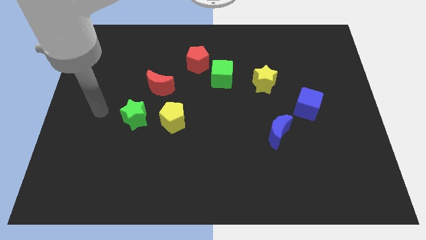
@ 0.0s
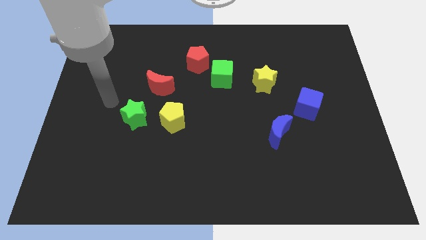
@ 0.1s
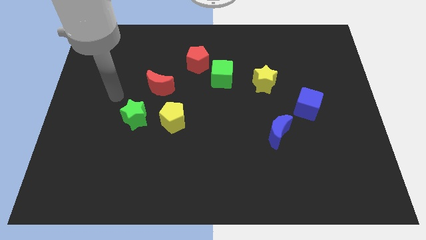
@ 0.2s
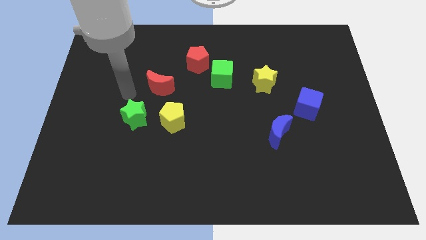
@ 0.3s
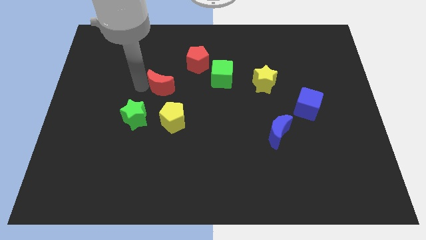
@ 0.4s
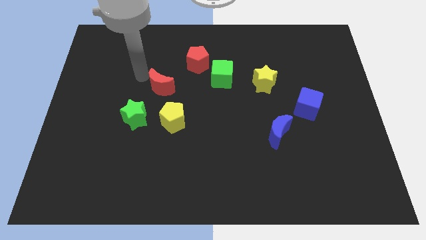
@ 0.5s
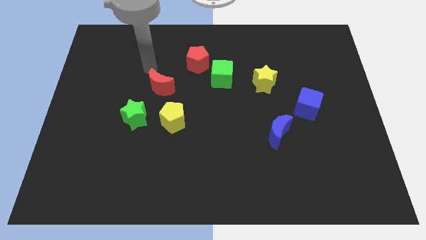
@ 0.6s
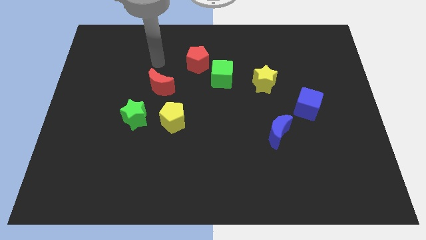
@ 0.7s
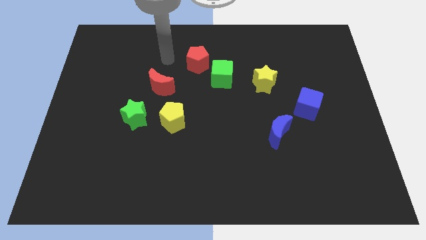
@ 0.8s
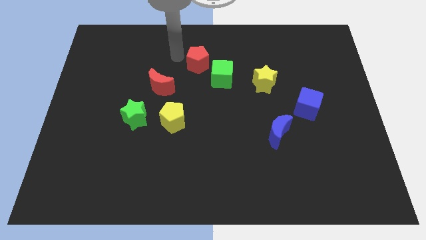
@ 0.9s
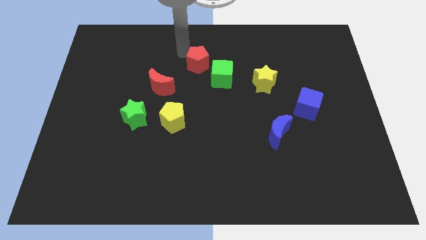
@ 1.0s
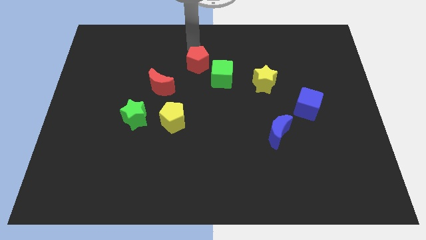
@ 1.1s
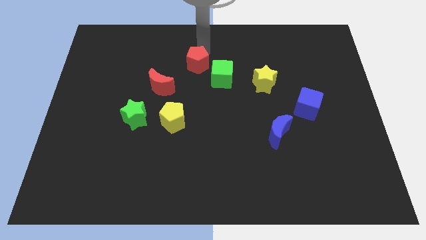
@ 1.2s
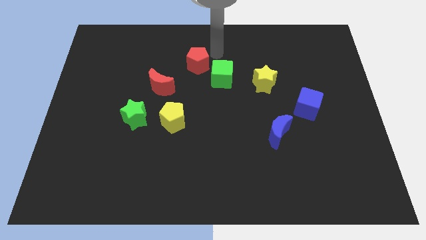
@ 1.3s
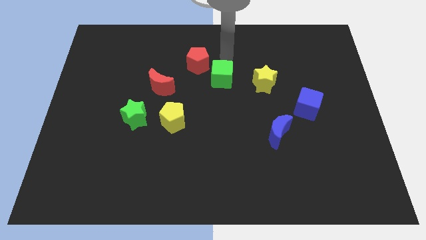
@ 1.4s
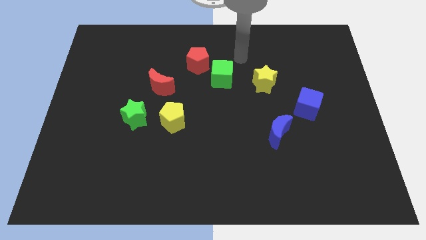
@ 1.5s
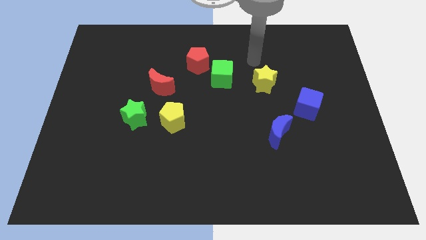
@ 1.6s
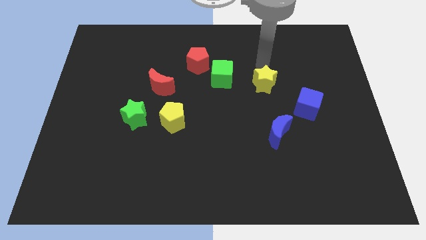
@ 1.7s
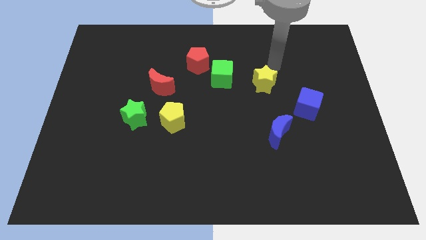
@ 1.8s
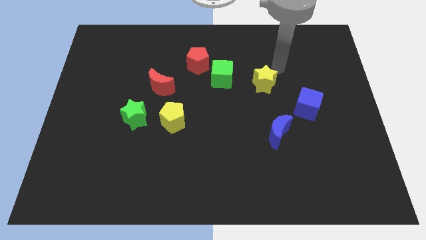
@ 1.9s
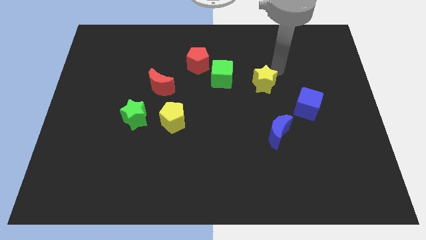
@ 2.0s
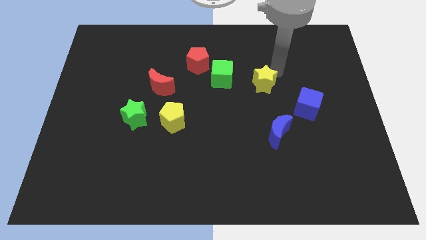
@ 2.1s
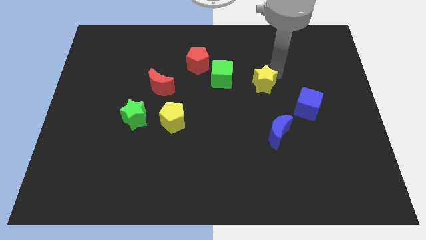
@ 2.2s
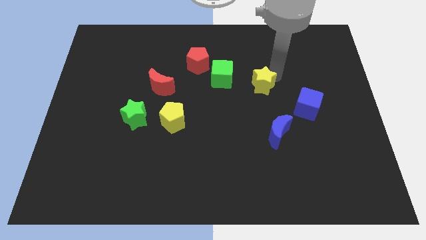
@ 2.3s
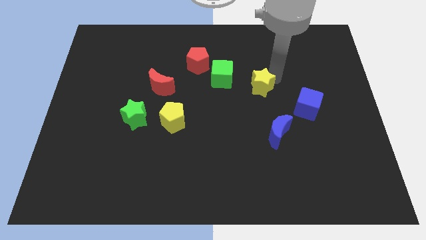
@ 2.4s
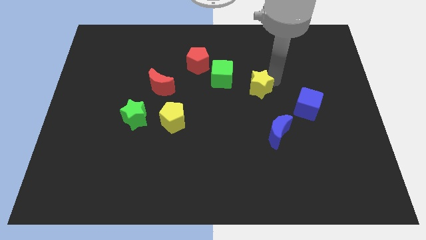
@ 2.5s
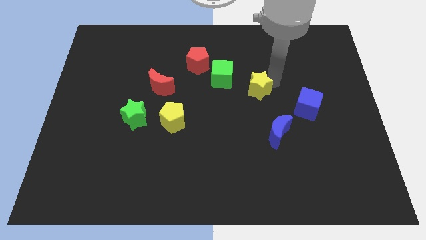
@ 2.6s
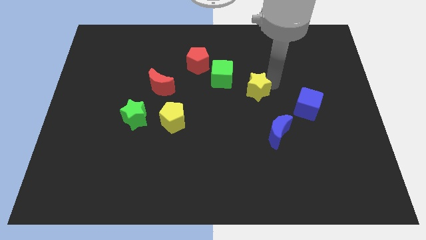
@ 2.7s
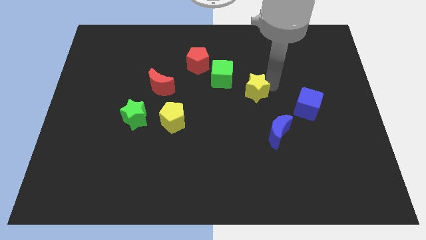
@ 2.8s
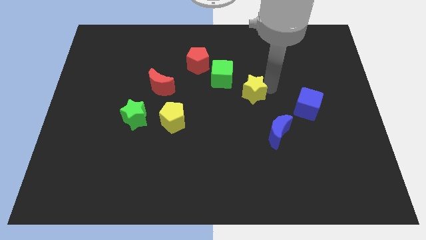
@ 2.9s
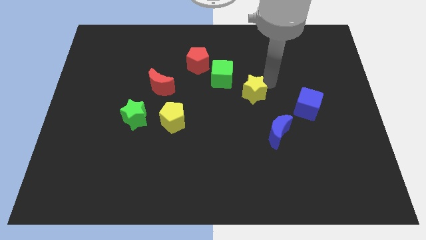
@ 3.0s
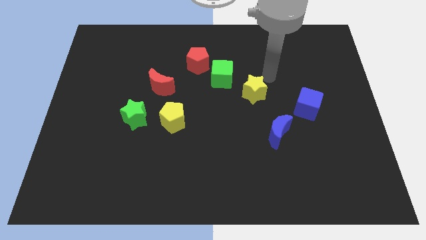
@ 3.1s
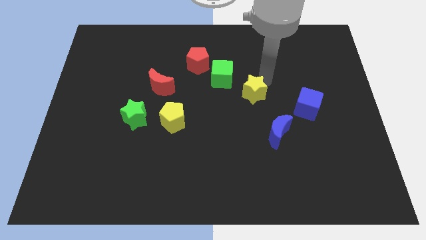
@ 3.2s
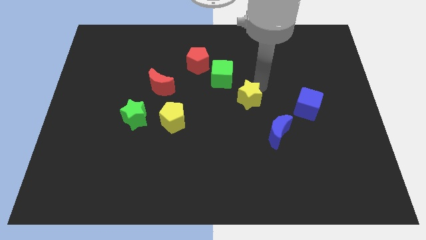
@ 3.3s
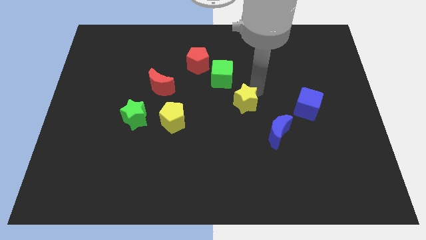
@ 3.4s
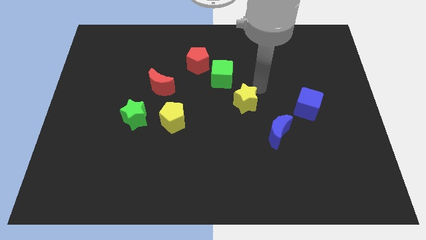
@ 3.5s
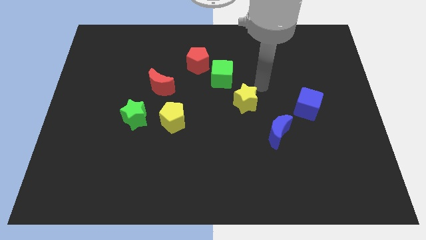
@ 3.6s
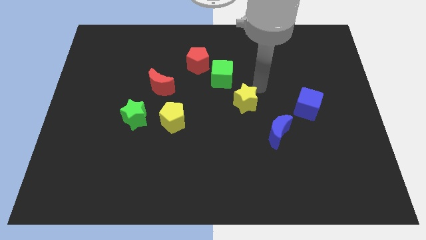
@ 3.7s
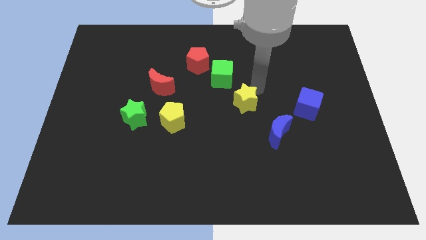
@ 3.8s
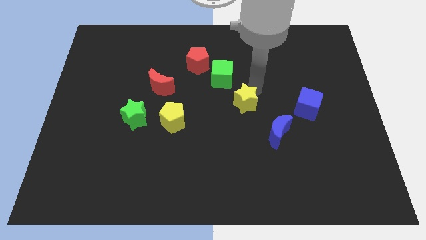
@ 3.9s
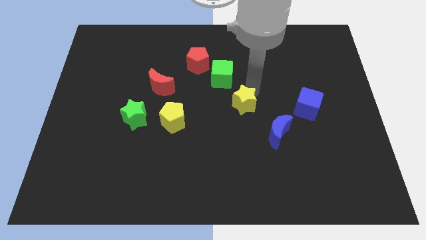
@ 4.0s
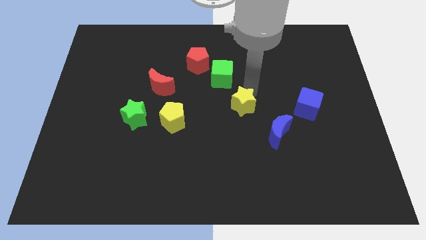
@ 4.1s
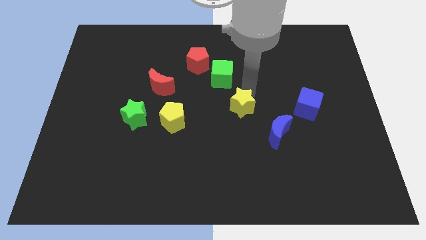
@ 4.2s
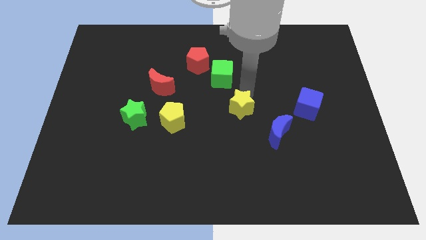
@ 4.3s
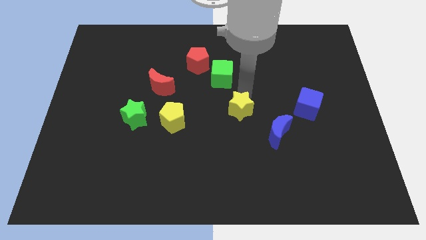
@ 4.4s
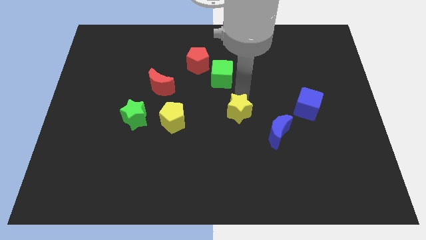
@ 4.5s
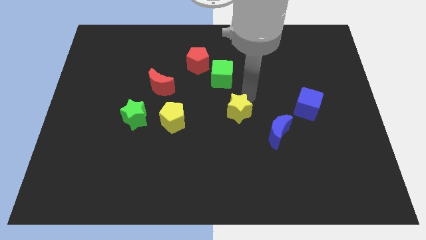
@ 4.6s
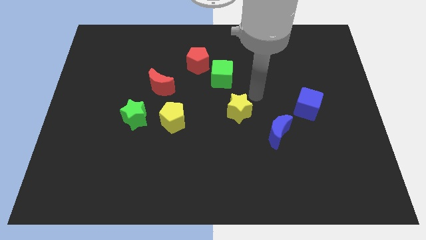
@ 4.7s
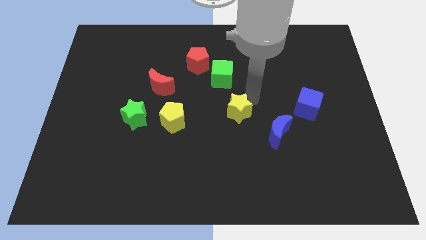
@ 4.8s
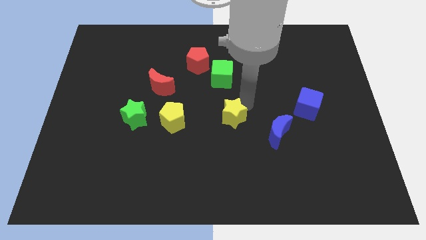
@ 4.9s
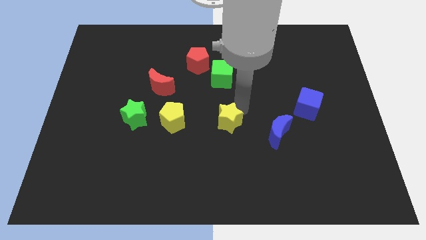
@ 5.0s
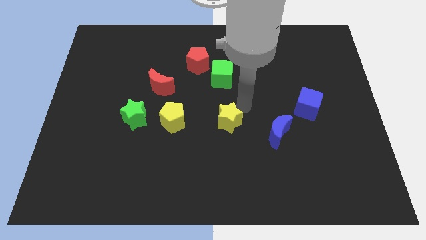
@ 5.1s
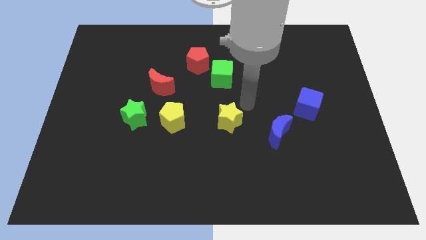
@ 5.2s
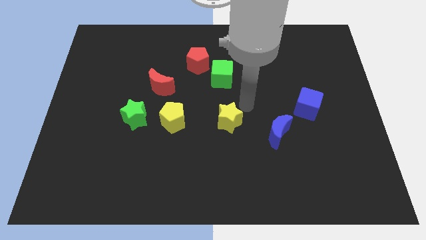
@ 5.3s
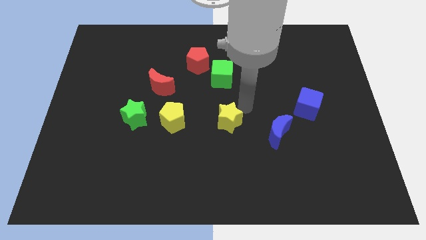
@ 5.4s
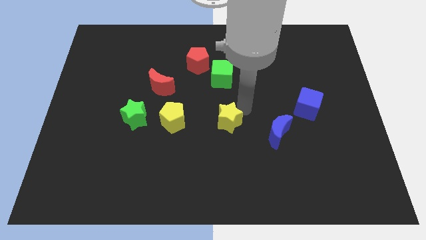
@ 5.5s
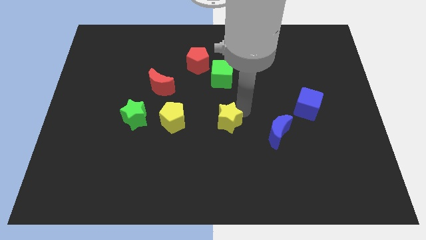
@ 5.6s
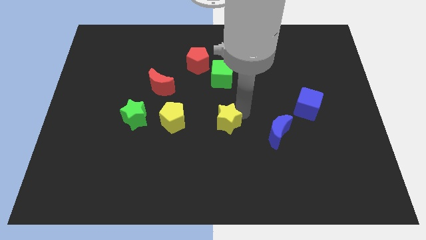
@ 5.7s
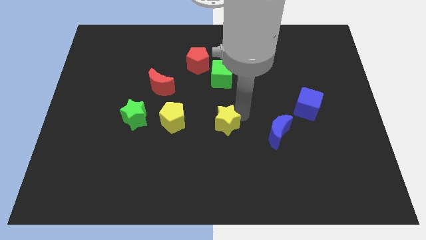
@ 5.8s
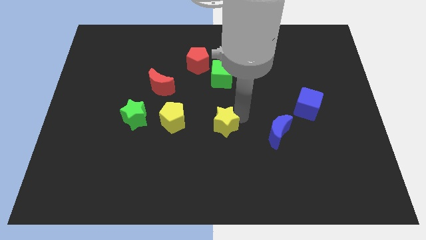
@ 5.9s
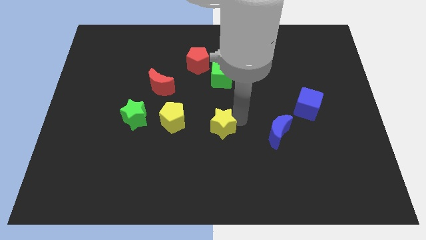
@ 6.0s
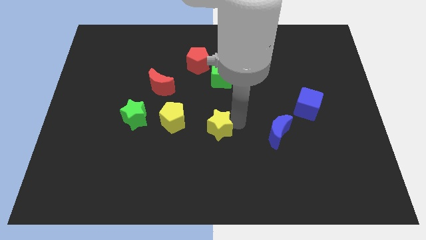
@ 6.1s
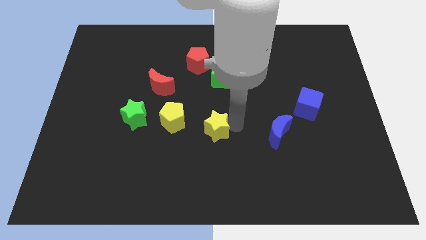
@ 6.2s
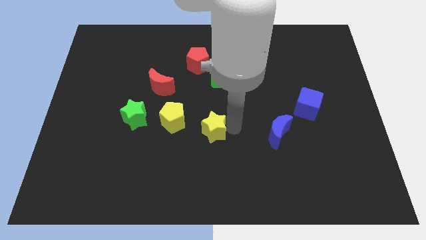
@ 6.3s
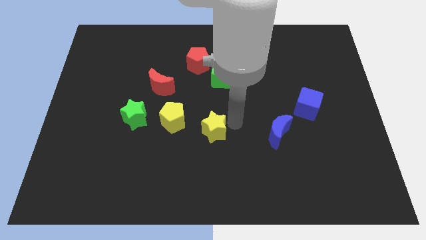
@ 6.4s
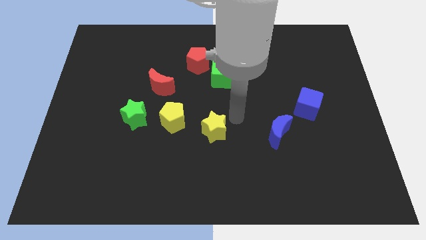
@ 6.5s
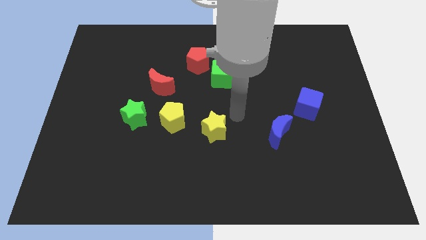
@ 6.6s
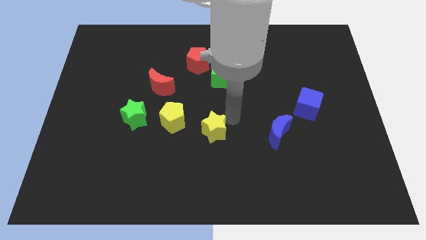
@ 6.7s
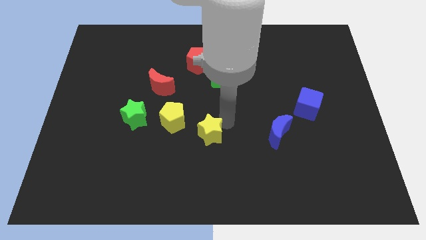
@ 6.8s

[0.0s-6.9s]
slide the yellow star down and left diagonally

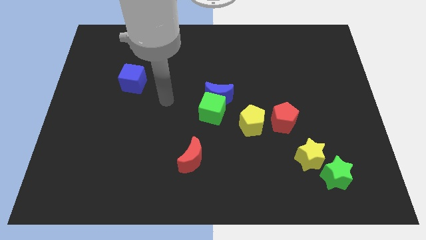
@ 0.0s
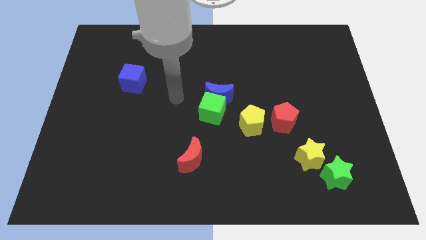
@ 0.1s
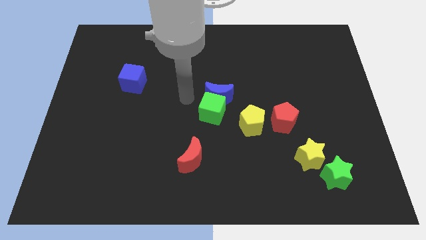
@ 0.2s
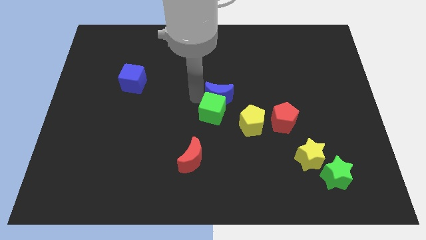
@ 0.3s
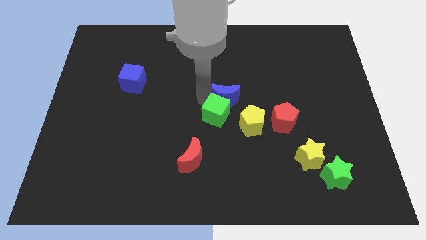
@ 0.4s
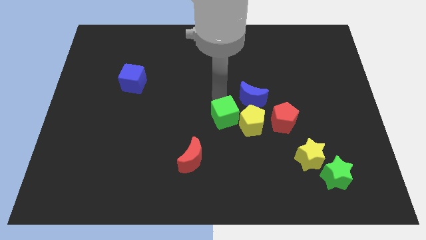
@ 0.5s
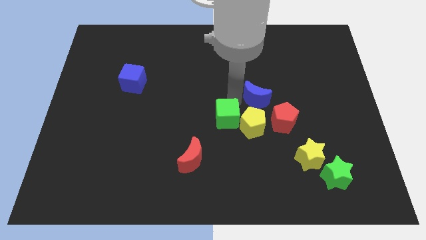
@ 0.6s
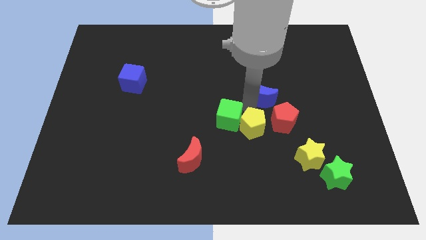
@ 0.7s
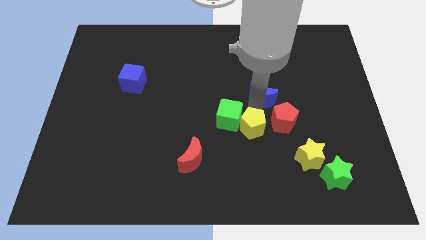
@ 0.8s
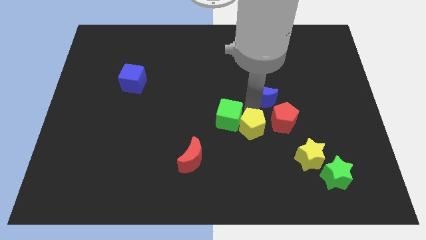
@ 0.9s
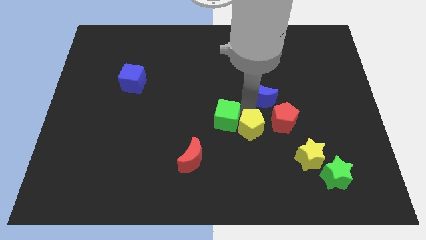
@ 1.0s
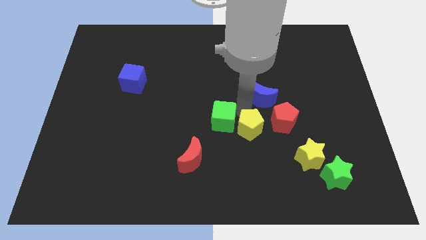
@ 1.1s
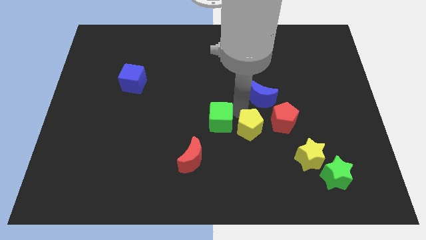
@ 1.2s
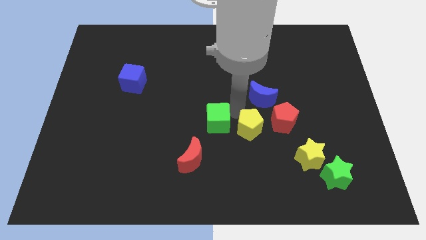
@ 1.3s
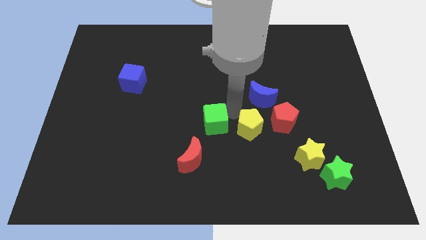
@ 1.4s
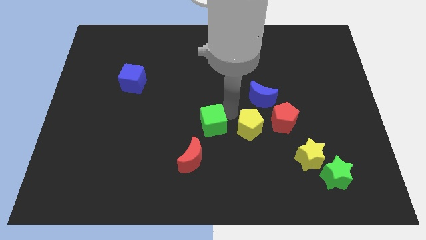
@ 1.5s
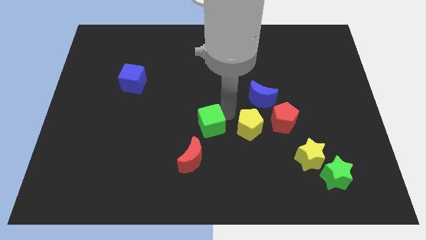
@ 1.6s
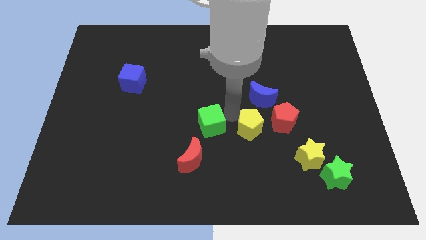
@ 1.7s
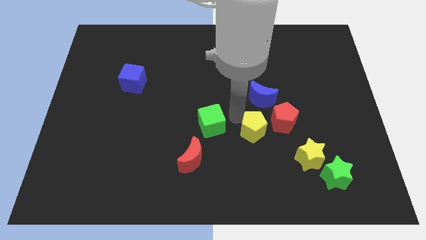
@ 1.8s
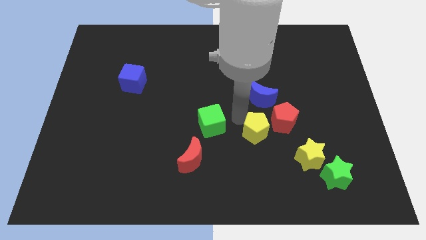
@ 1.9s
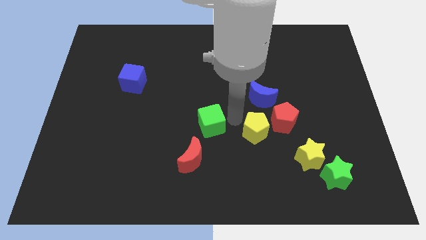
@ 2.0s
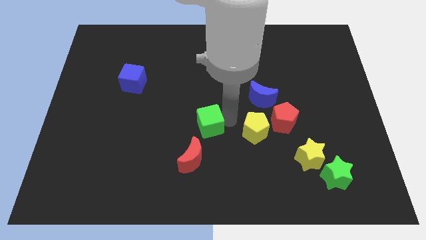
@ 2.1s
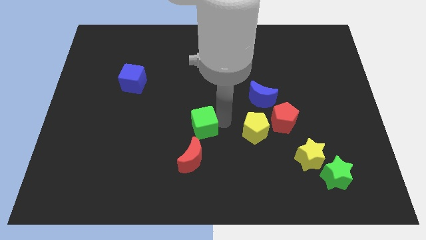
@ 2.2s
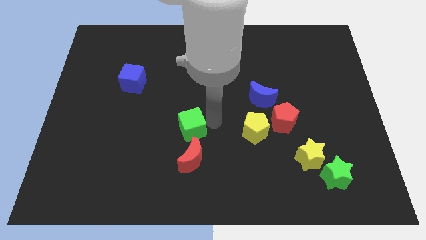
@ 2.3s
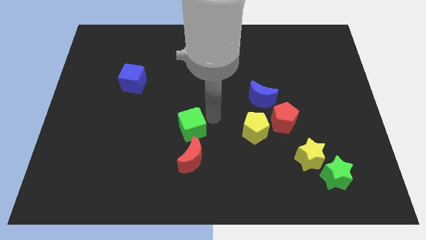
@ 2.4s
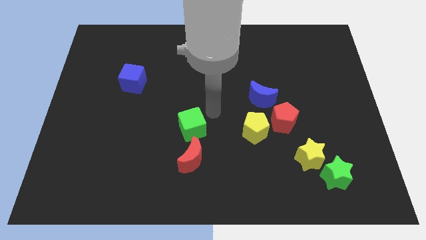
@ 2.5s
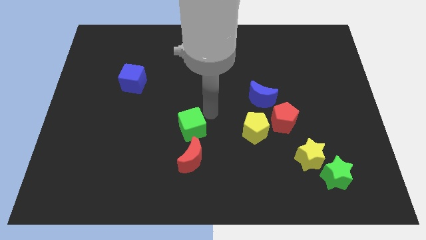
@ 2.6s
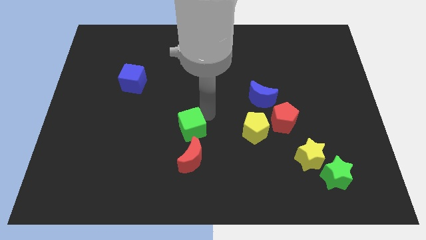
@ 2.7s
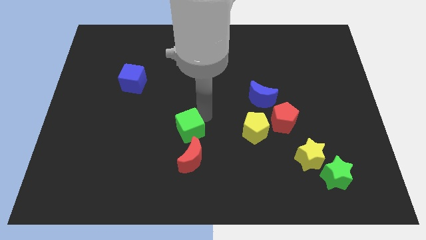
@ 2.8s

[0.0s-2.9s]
slide the green cube downwards and to the left diagonally a bit
